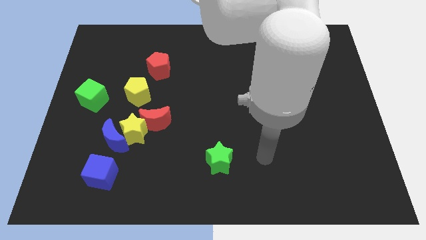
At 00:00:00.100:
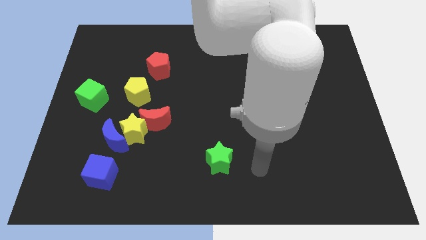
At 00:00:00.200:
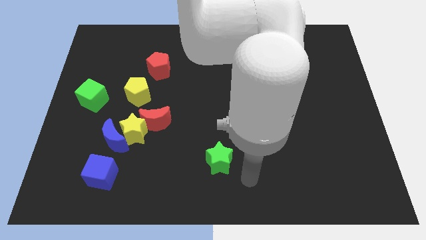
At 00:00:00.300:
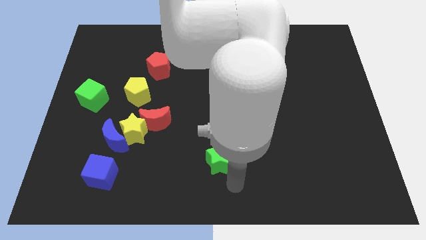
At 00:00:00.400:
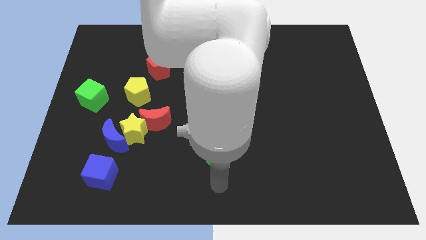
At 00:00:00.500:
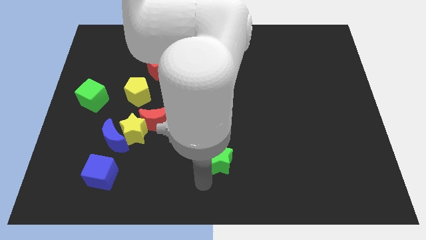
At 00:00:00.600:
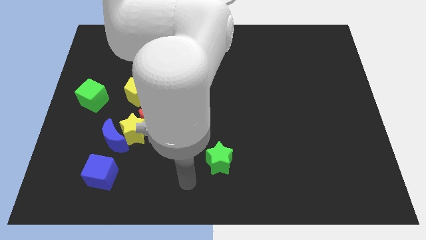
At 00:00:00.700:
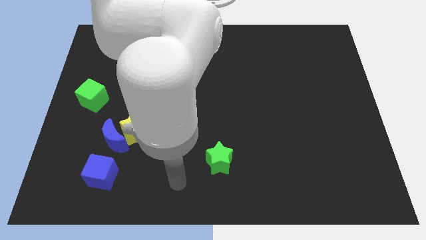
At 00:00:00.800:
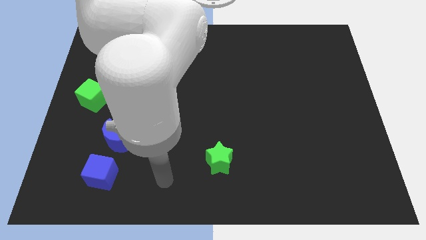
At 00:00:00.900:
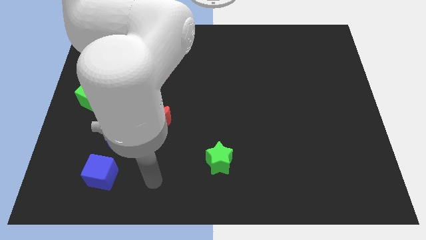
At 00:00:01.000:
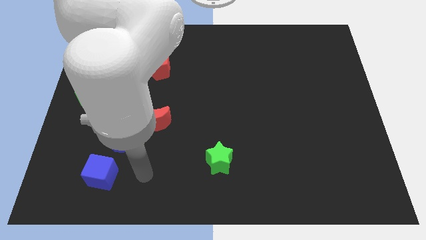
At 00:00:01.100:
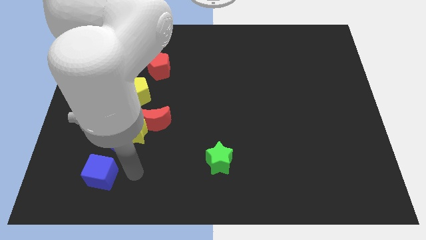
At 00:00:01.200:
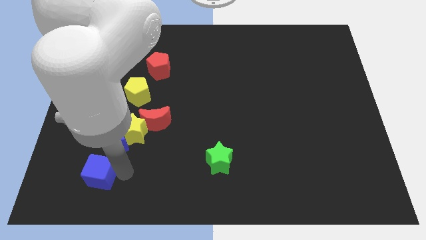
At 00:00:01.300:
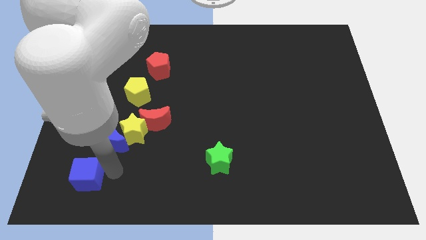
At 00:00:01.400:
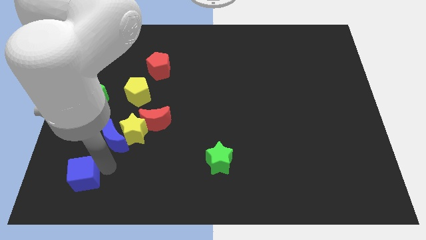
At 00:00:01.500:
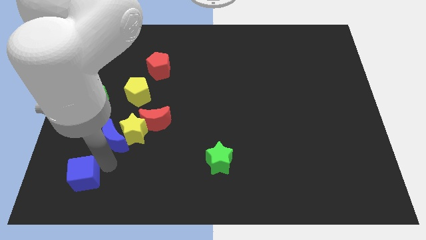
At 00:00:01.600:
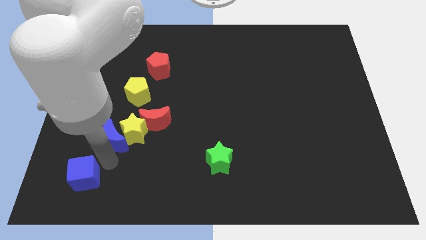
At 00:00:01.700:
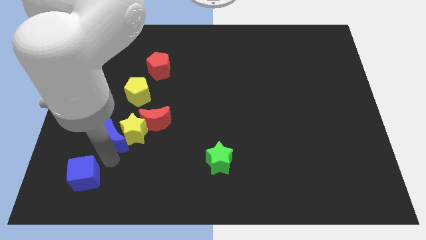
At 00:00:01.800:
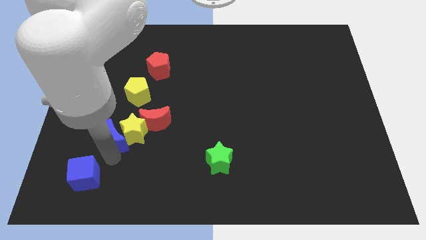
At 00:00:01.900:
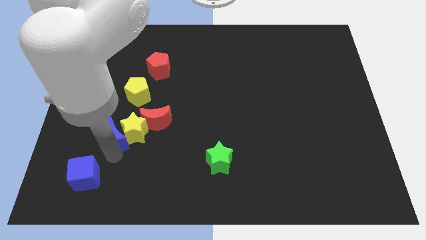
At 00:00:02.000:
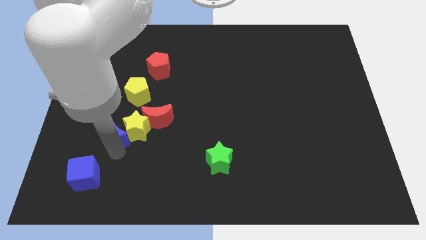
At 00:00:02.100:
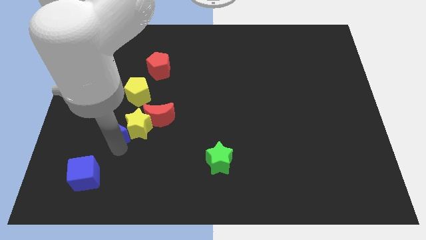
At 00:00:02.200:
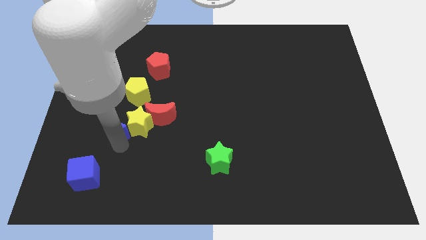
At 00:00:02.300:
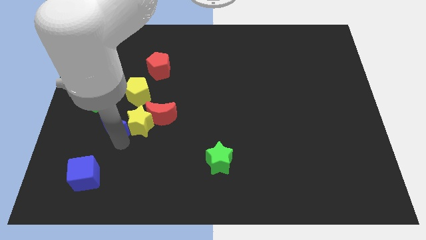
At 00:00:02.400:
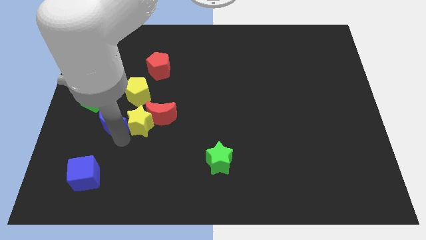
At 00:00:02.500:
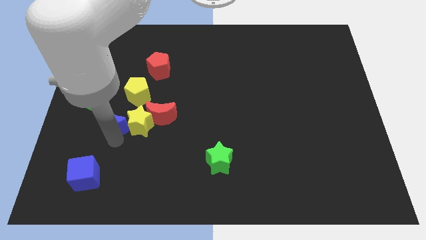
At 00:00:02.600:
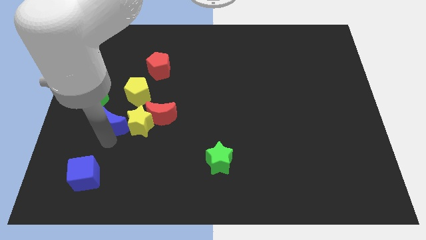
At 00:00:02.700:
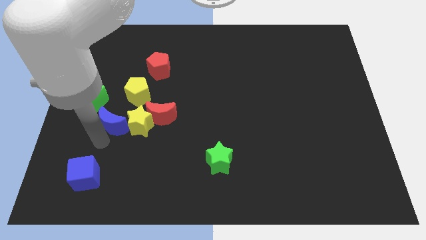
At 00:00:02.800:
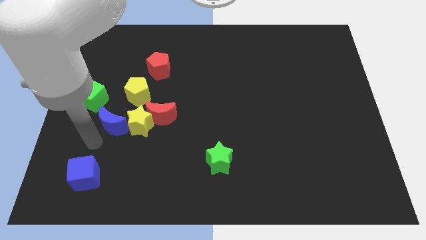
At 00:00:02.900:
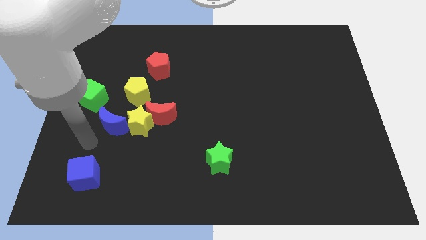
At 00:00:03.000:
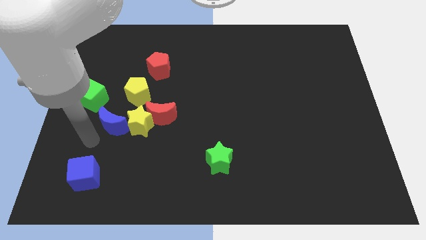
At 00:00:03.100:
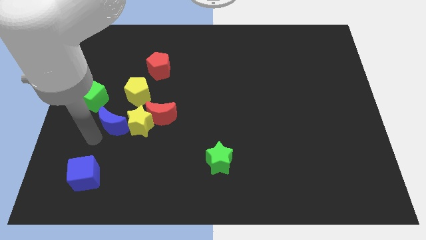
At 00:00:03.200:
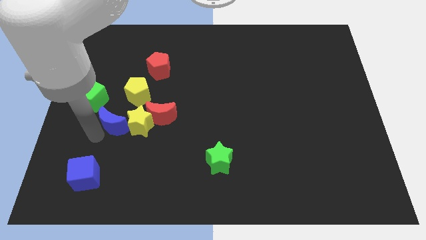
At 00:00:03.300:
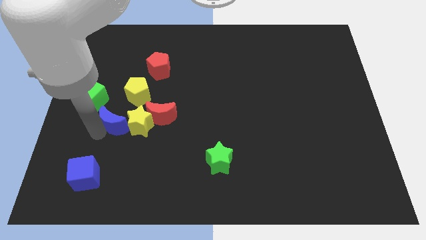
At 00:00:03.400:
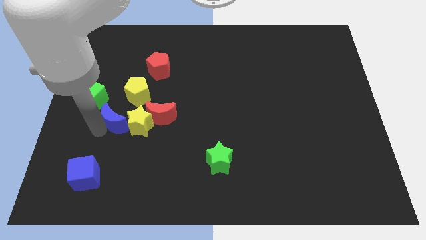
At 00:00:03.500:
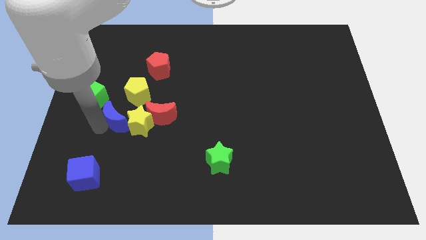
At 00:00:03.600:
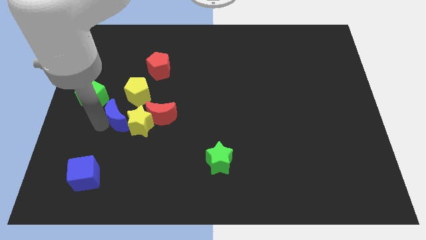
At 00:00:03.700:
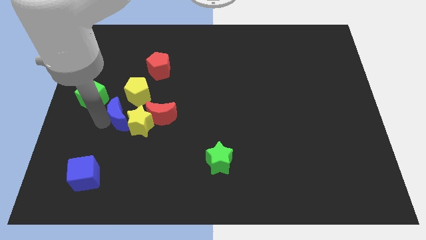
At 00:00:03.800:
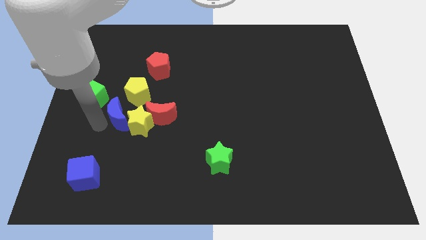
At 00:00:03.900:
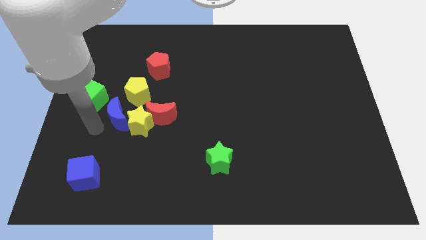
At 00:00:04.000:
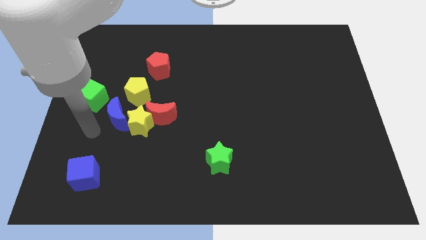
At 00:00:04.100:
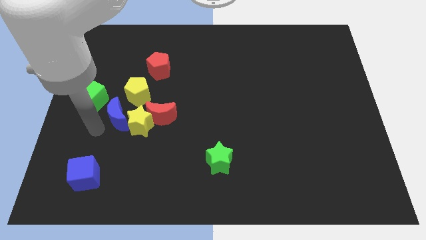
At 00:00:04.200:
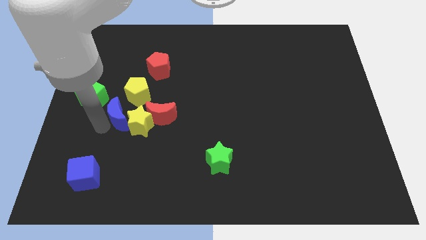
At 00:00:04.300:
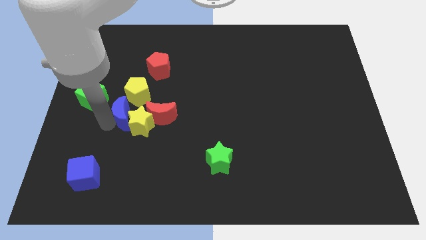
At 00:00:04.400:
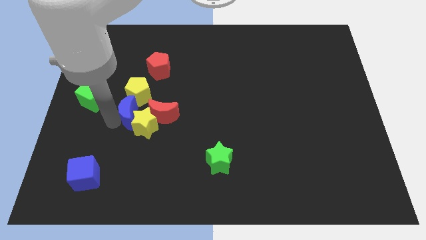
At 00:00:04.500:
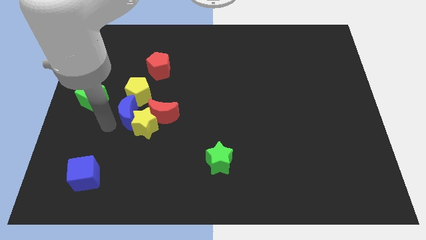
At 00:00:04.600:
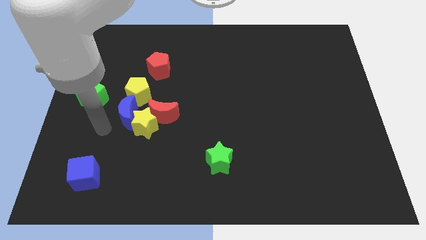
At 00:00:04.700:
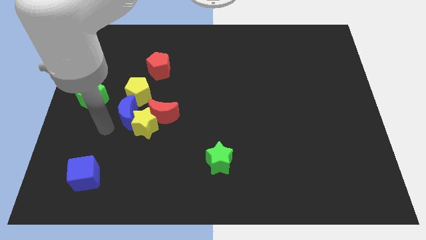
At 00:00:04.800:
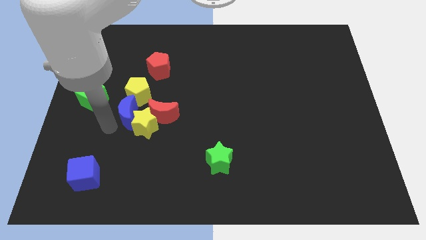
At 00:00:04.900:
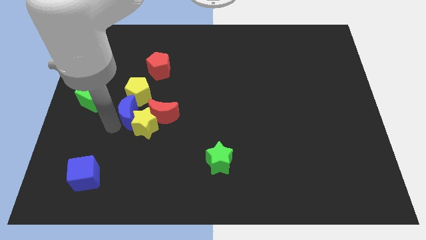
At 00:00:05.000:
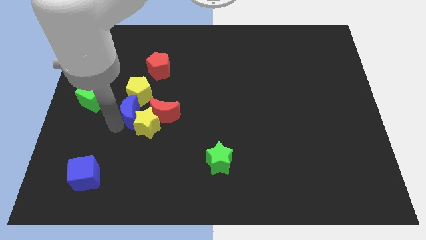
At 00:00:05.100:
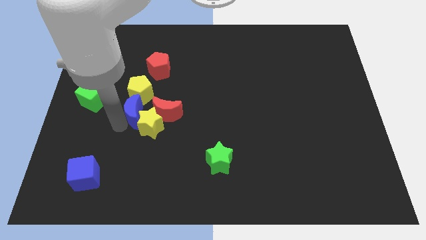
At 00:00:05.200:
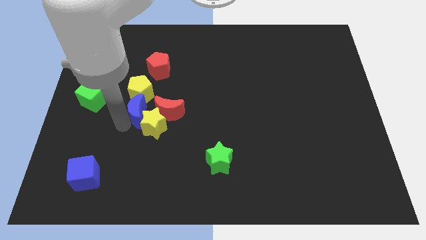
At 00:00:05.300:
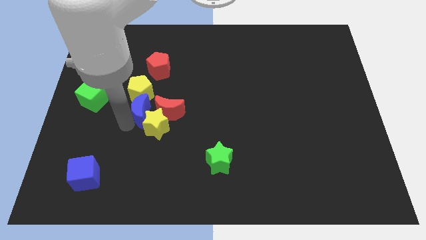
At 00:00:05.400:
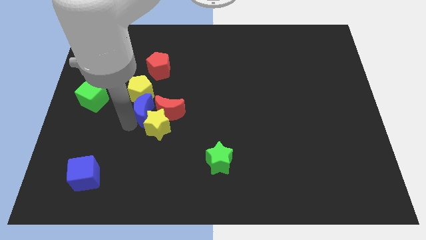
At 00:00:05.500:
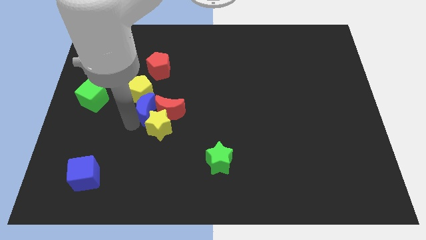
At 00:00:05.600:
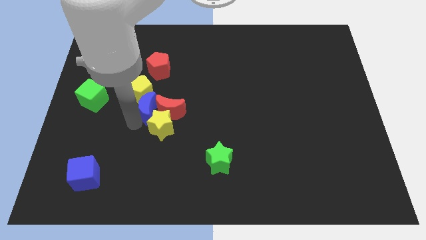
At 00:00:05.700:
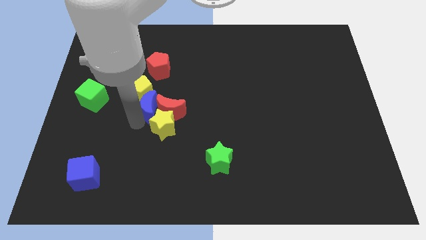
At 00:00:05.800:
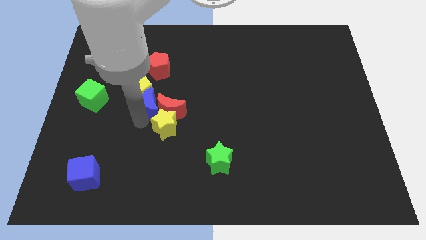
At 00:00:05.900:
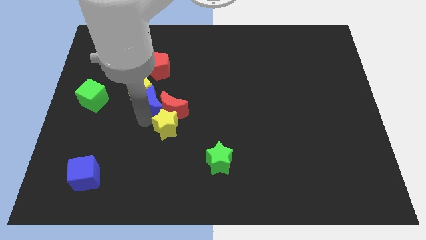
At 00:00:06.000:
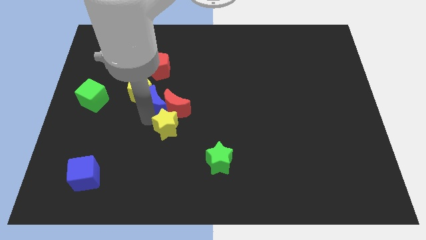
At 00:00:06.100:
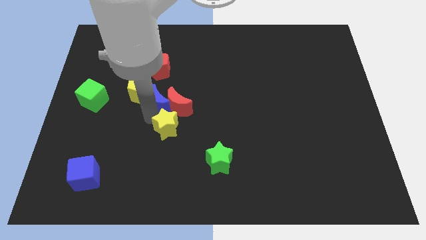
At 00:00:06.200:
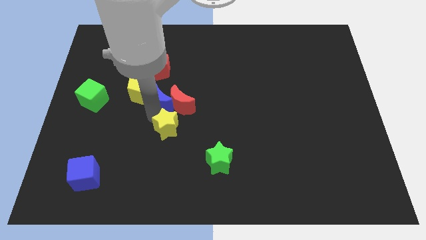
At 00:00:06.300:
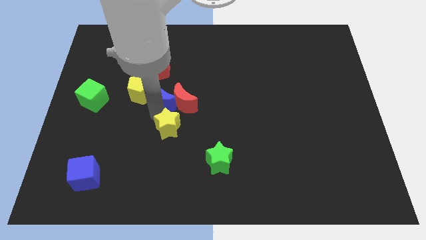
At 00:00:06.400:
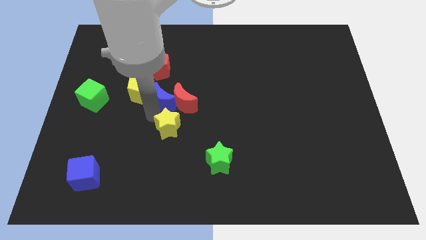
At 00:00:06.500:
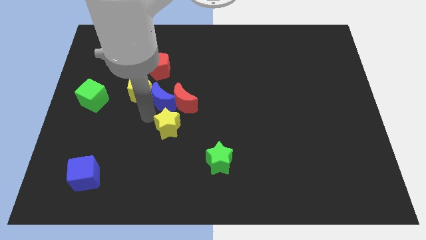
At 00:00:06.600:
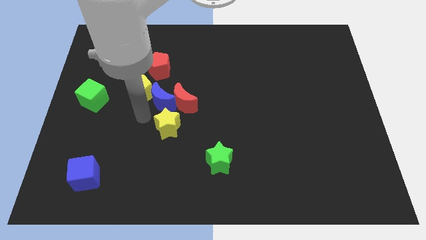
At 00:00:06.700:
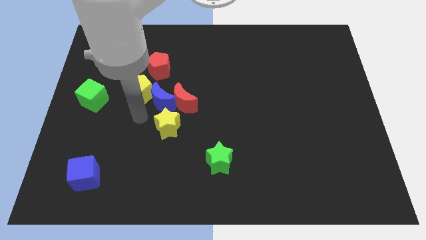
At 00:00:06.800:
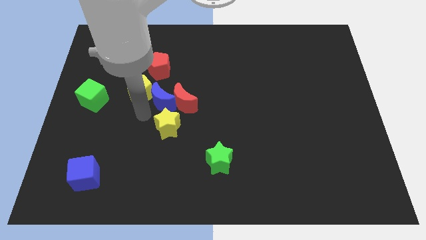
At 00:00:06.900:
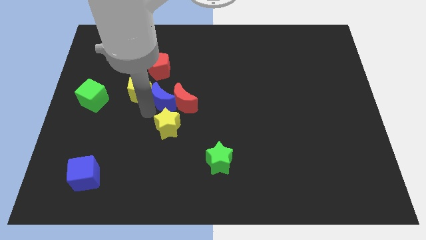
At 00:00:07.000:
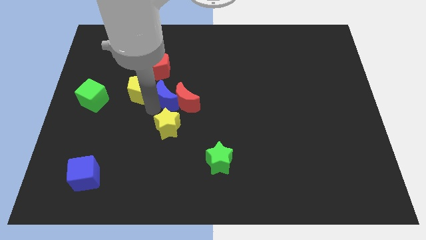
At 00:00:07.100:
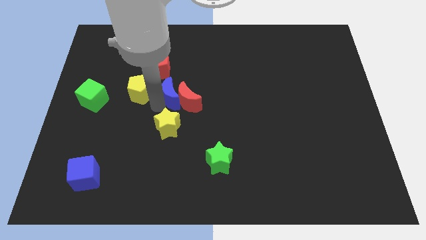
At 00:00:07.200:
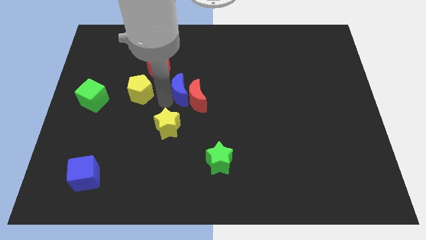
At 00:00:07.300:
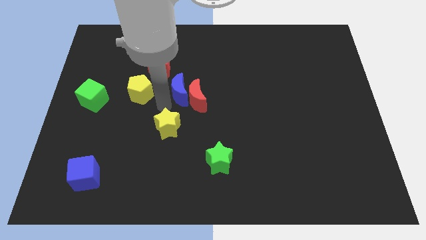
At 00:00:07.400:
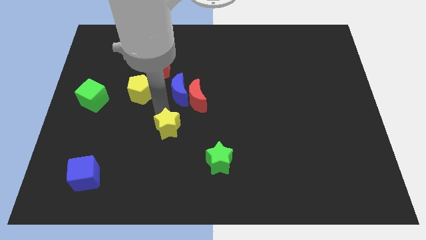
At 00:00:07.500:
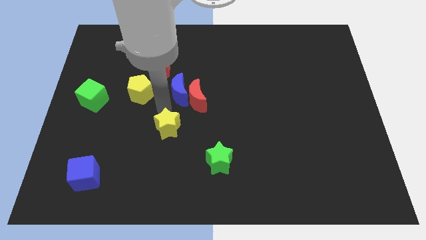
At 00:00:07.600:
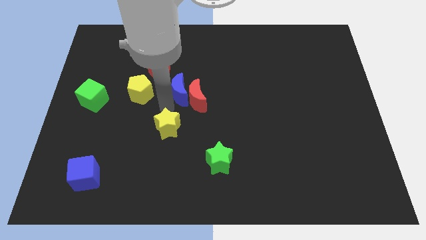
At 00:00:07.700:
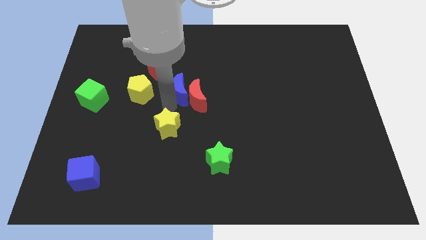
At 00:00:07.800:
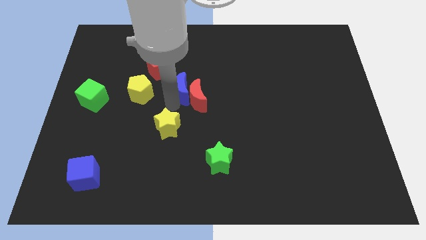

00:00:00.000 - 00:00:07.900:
move the blue moon upwards and to the right

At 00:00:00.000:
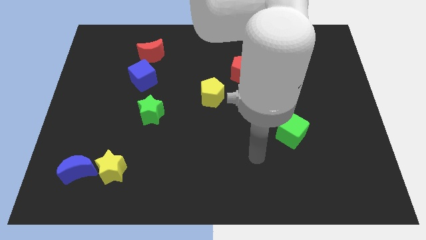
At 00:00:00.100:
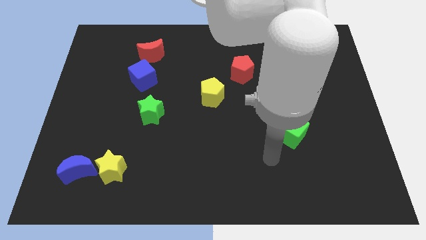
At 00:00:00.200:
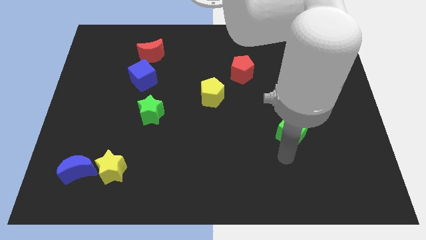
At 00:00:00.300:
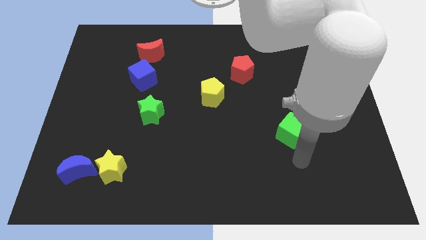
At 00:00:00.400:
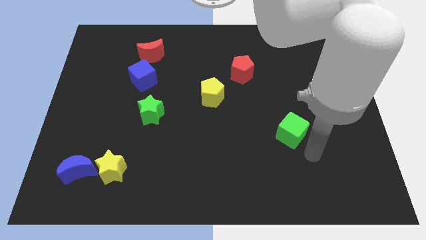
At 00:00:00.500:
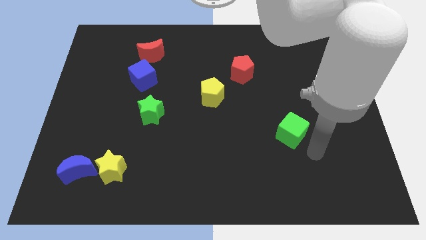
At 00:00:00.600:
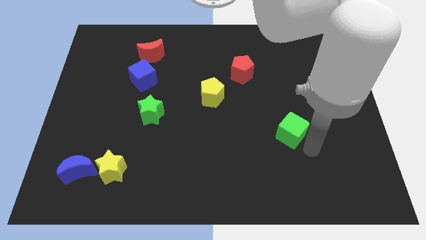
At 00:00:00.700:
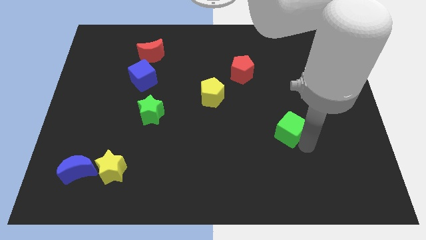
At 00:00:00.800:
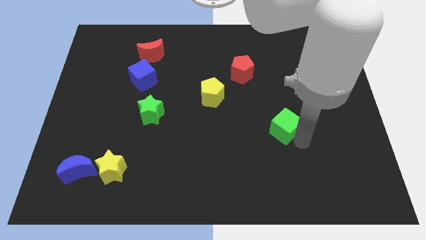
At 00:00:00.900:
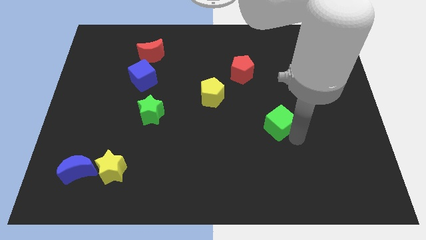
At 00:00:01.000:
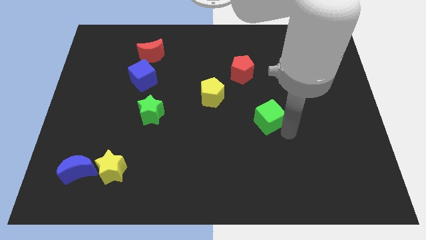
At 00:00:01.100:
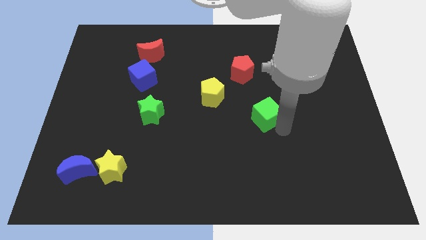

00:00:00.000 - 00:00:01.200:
slightly push the green cube diagonally upwards and left
